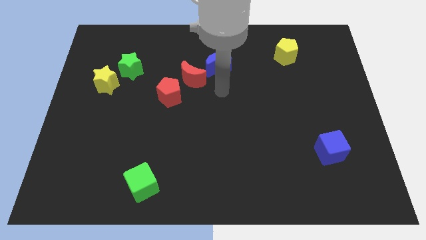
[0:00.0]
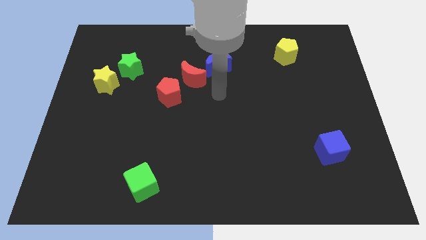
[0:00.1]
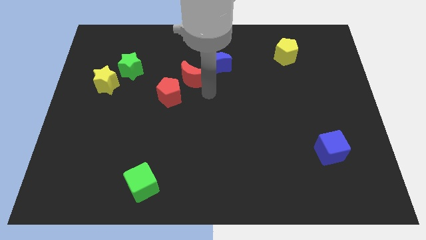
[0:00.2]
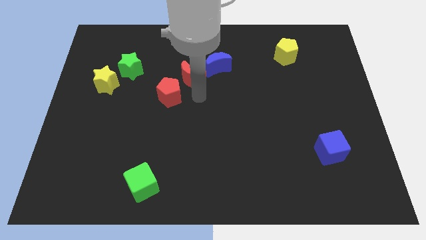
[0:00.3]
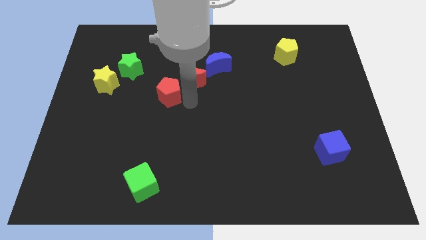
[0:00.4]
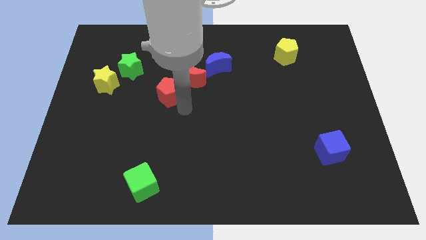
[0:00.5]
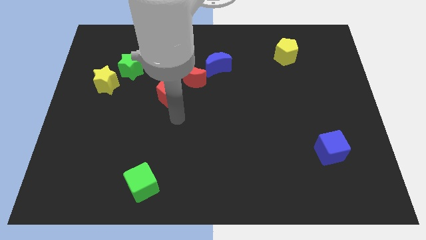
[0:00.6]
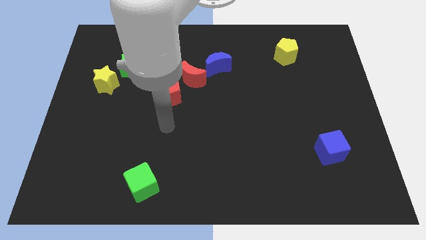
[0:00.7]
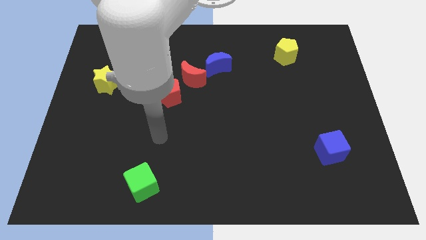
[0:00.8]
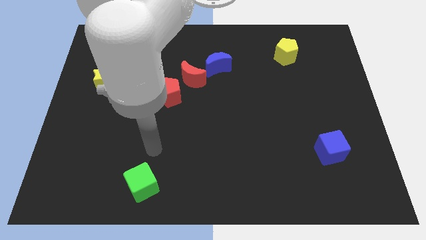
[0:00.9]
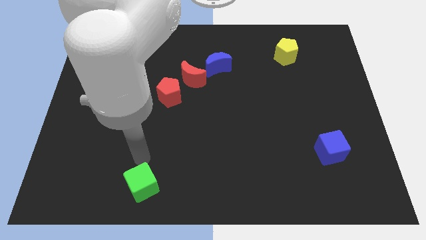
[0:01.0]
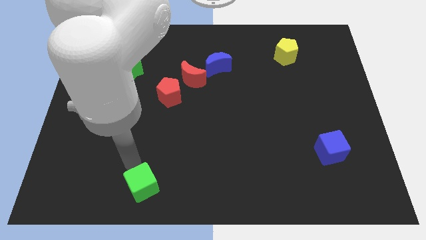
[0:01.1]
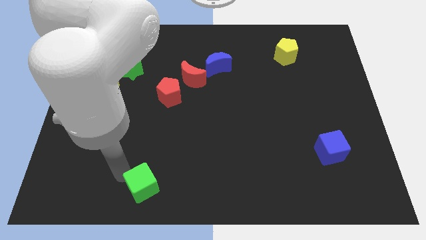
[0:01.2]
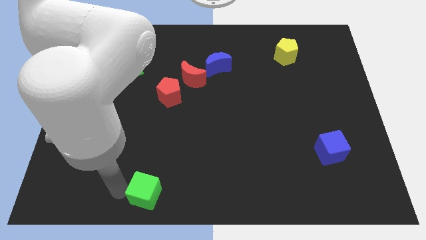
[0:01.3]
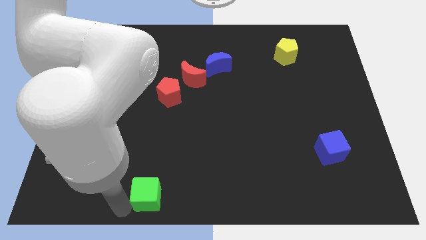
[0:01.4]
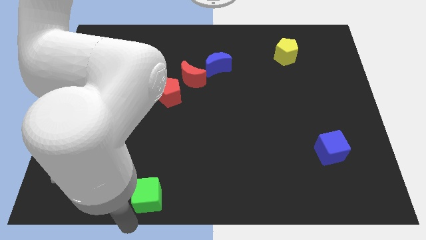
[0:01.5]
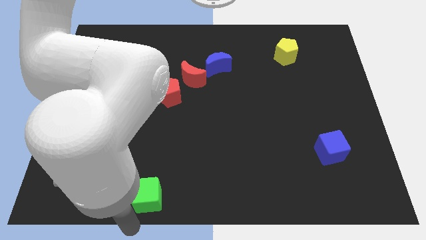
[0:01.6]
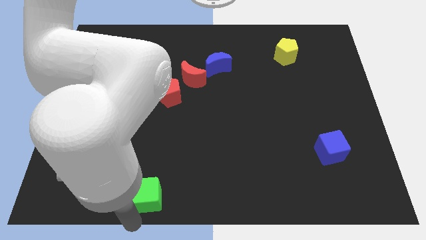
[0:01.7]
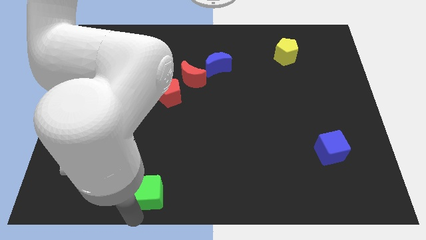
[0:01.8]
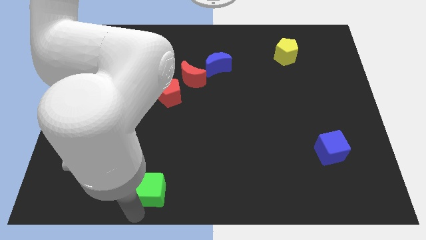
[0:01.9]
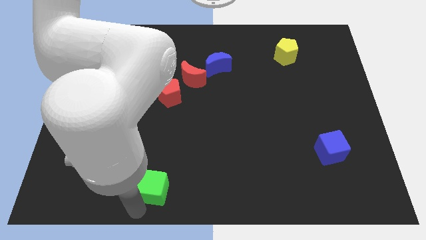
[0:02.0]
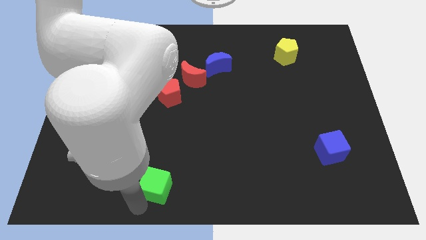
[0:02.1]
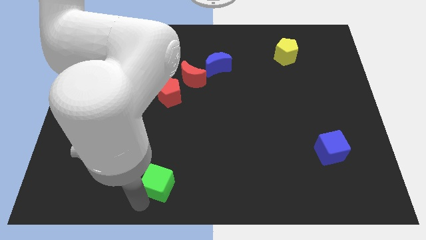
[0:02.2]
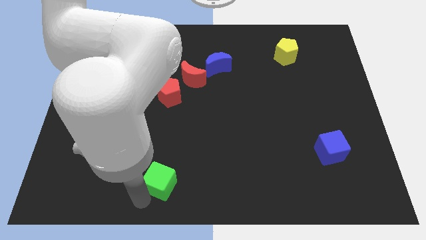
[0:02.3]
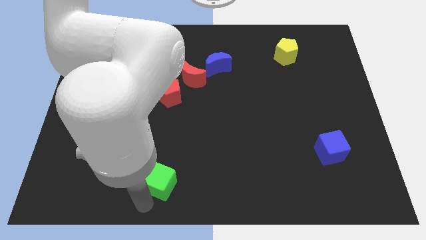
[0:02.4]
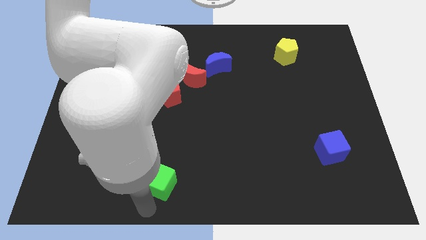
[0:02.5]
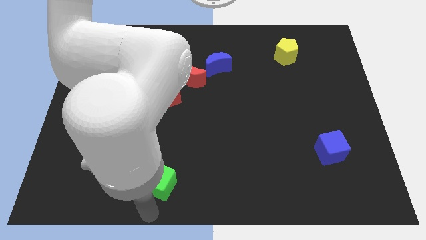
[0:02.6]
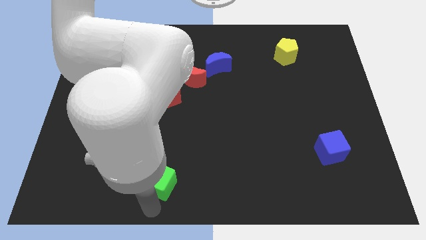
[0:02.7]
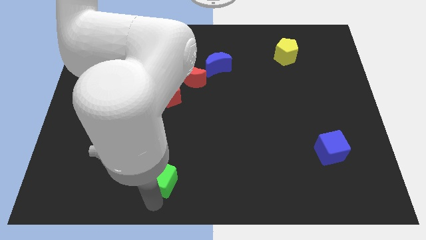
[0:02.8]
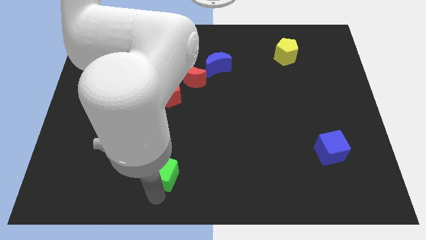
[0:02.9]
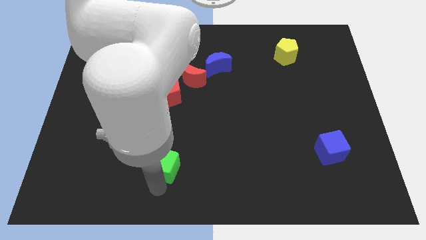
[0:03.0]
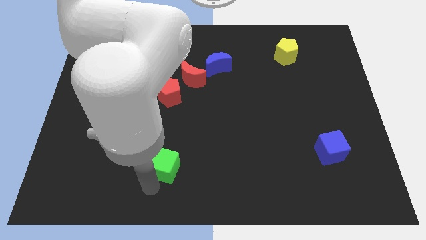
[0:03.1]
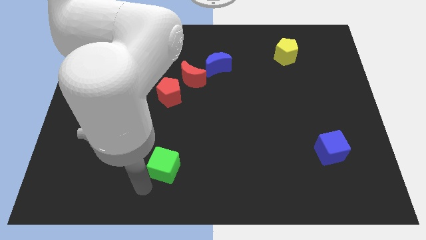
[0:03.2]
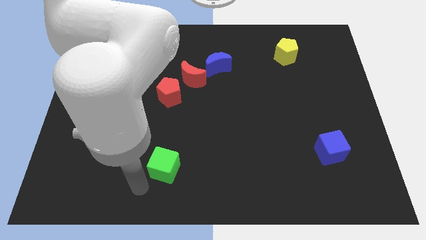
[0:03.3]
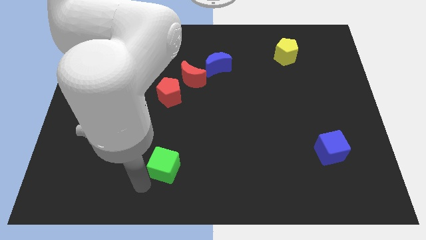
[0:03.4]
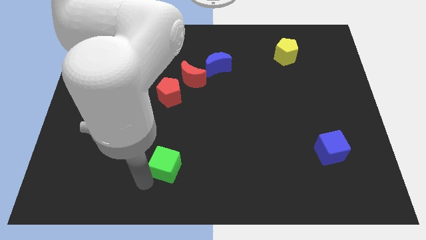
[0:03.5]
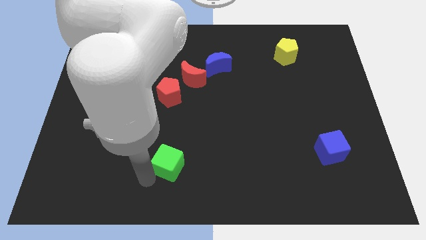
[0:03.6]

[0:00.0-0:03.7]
move the green cube slightly diagonally up and to the right

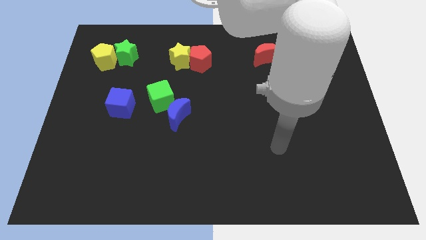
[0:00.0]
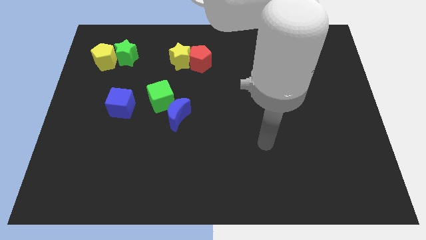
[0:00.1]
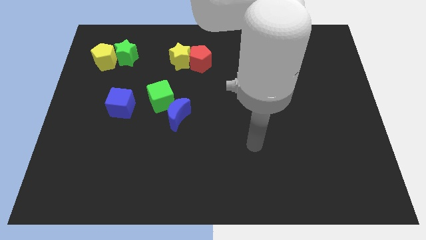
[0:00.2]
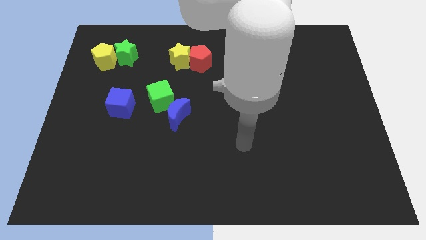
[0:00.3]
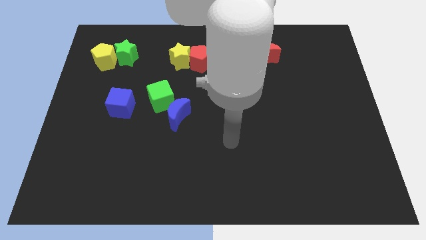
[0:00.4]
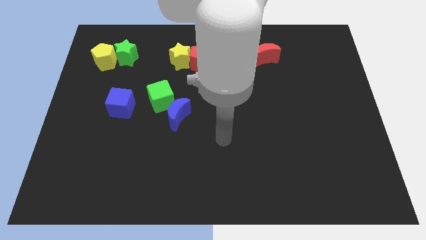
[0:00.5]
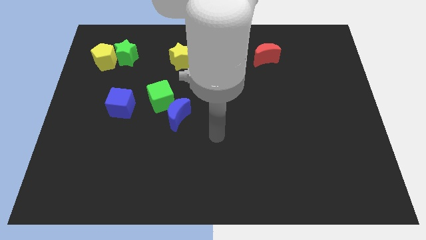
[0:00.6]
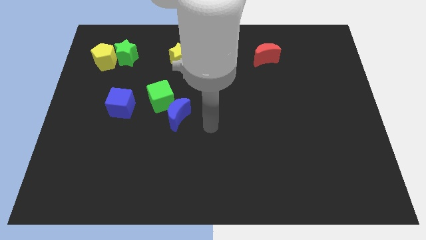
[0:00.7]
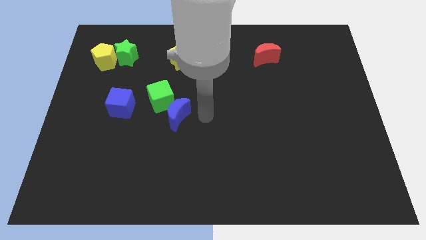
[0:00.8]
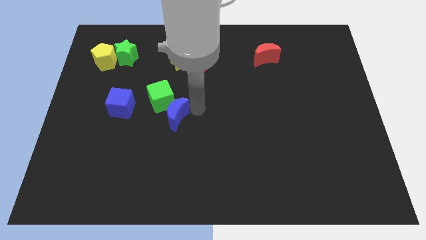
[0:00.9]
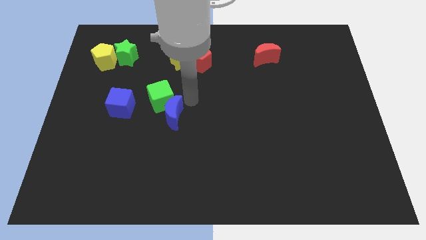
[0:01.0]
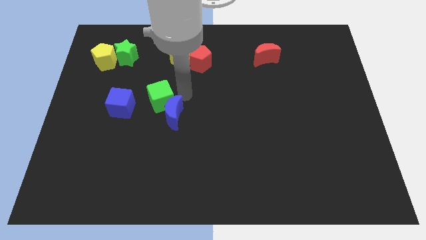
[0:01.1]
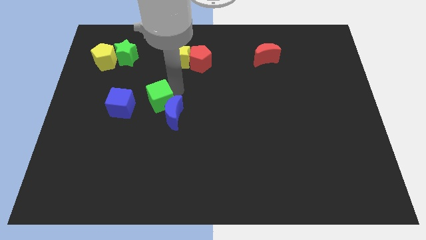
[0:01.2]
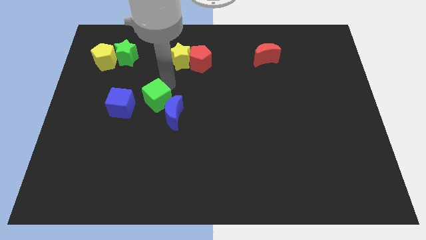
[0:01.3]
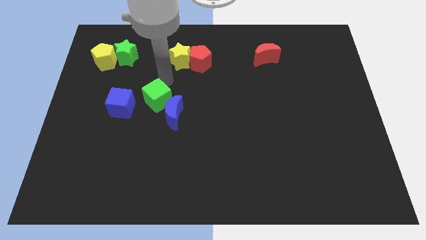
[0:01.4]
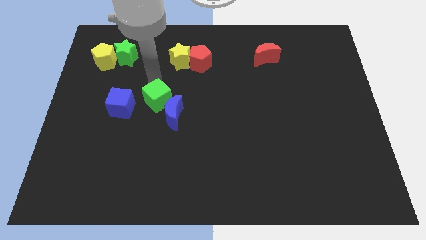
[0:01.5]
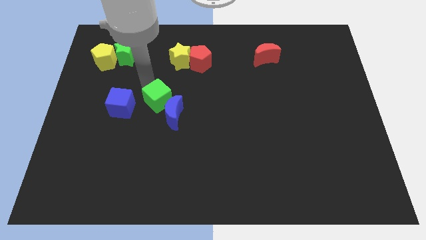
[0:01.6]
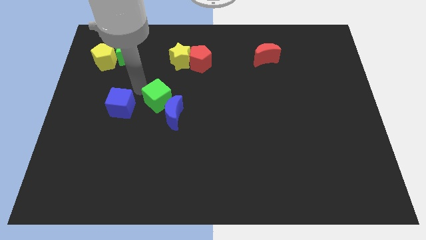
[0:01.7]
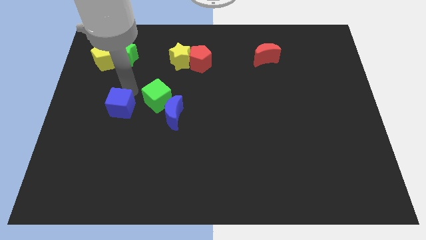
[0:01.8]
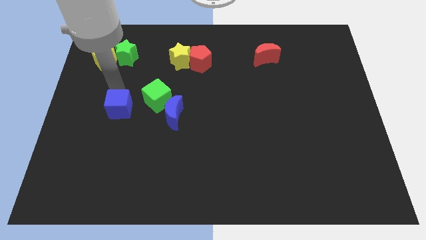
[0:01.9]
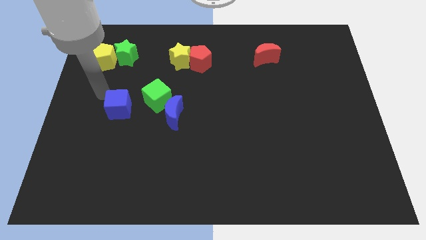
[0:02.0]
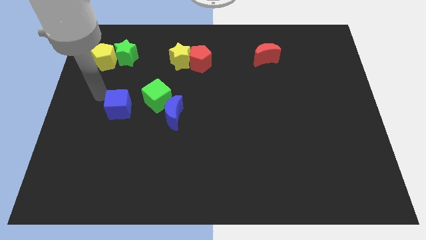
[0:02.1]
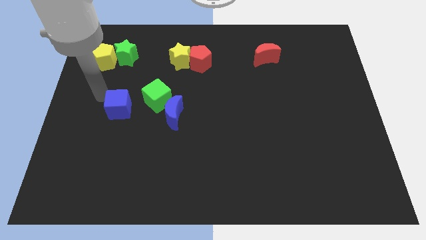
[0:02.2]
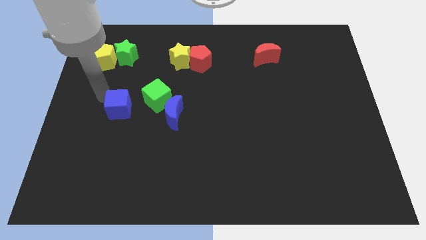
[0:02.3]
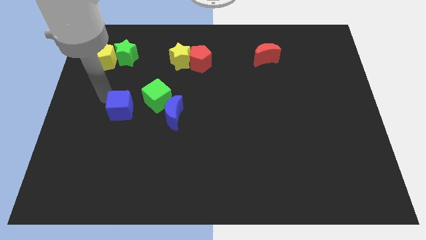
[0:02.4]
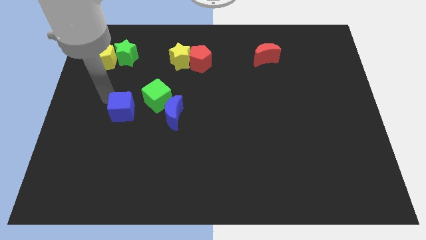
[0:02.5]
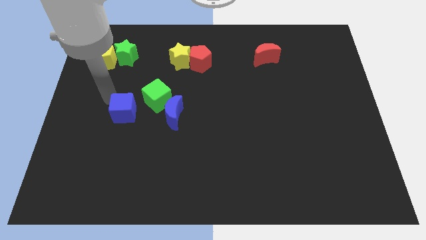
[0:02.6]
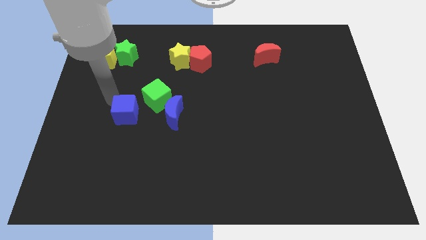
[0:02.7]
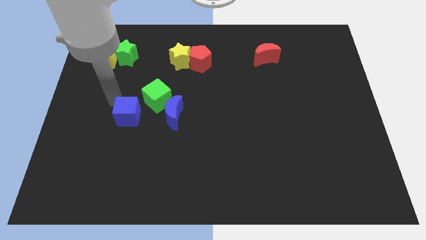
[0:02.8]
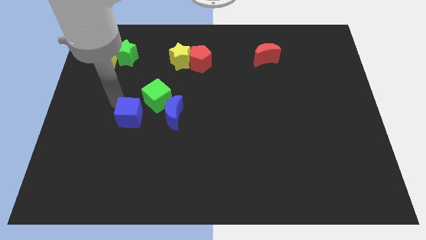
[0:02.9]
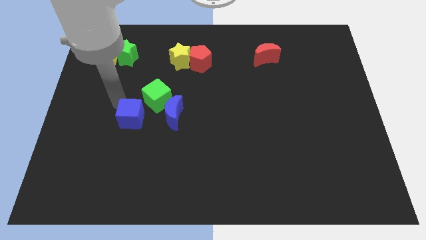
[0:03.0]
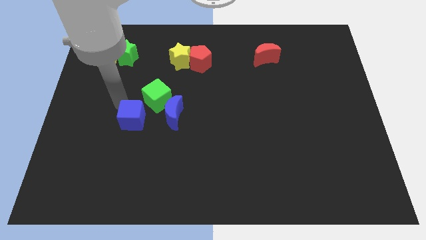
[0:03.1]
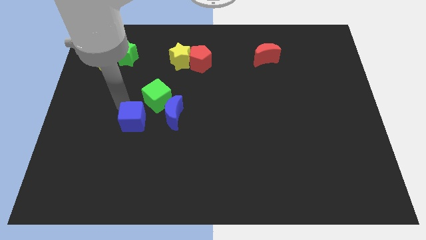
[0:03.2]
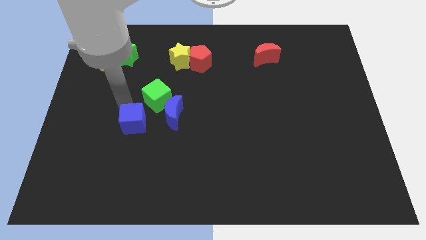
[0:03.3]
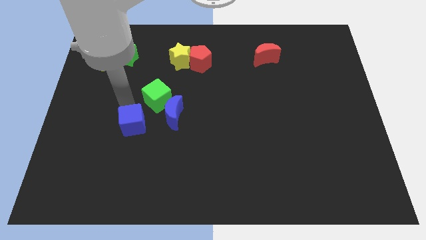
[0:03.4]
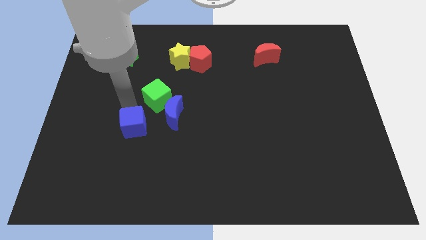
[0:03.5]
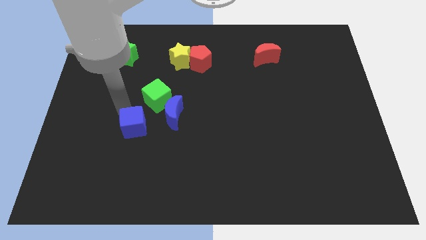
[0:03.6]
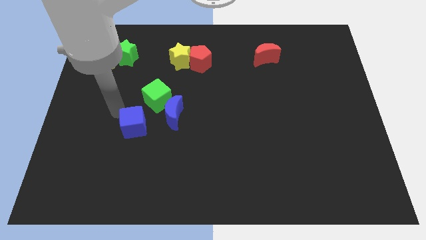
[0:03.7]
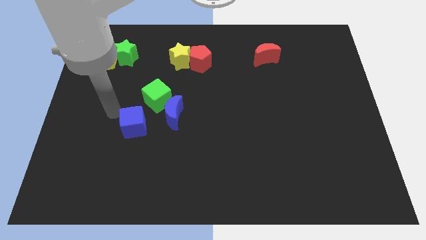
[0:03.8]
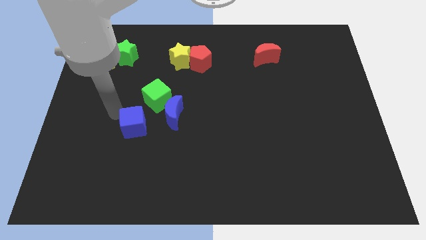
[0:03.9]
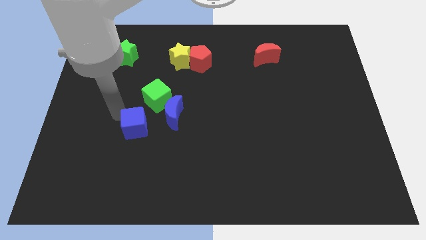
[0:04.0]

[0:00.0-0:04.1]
slide the blue cube downwards and to the right a little bit

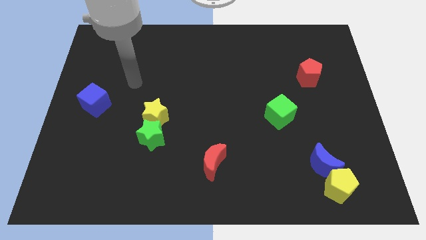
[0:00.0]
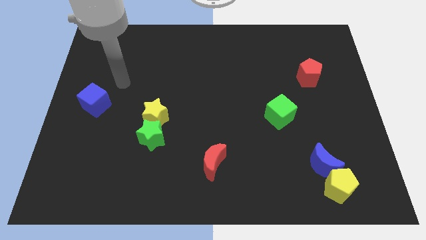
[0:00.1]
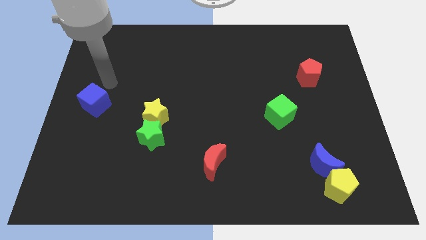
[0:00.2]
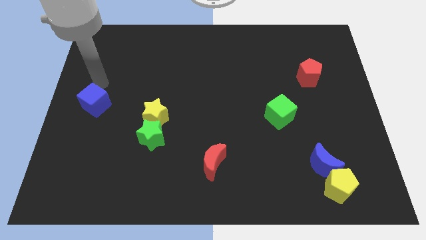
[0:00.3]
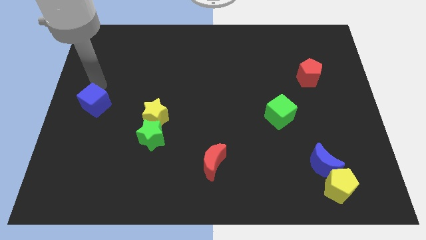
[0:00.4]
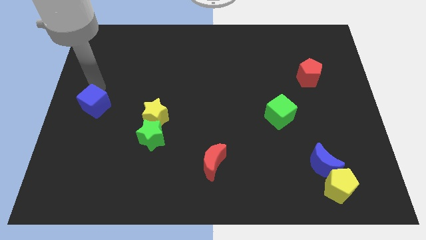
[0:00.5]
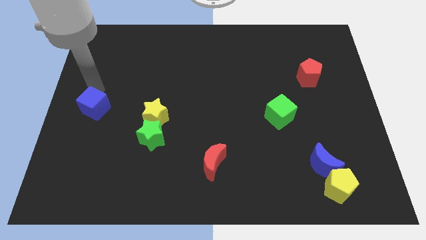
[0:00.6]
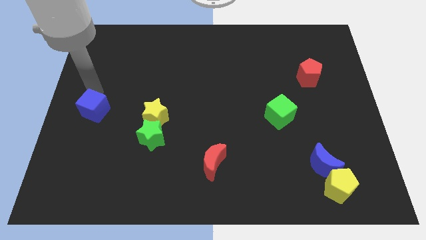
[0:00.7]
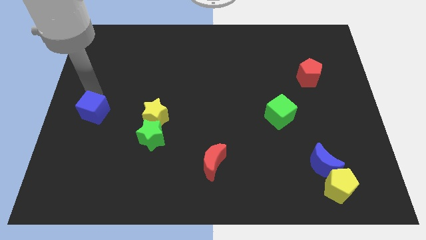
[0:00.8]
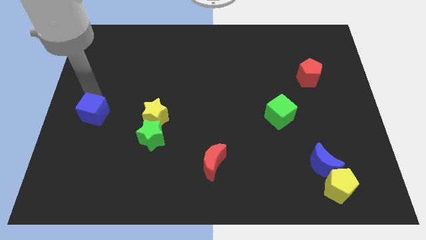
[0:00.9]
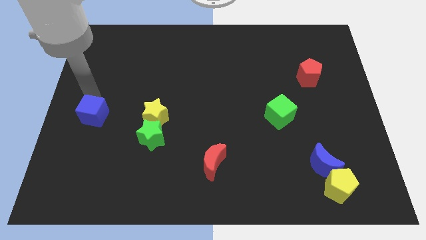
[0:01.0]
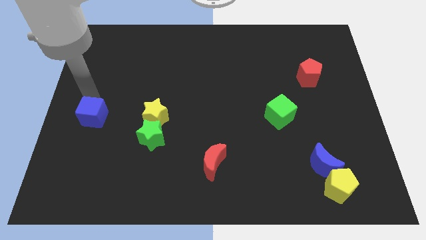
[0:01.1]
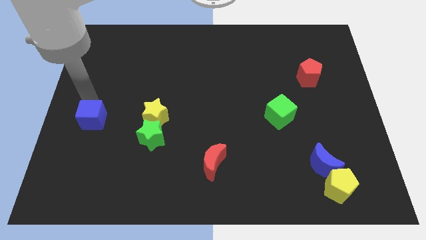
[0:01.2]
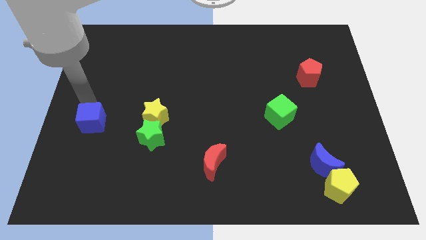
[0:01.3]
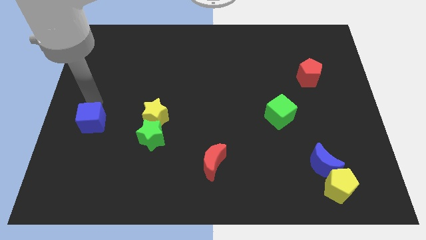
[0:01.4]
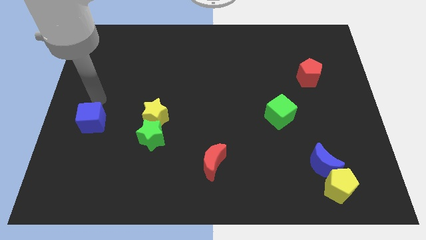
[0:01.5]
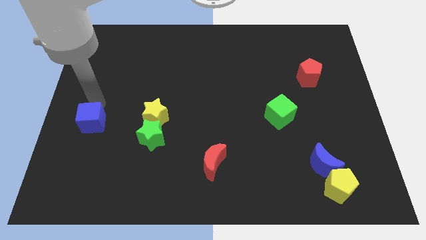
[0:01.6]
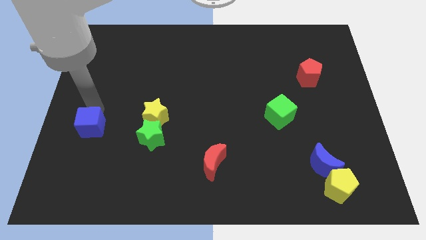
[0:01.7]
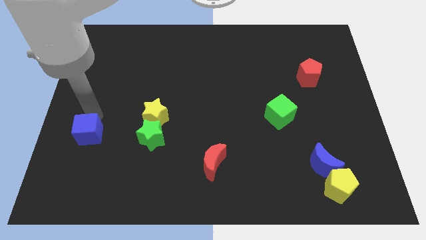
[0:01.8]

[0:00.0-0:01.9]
slide the blue cube down a little
